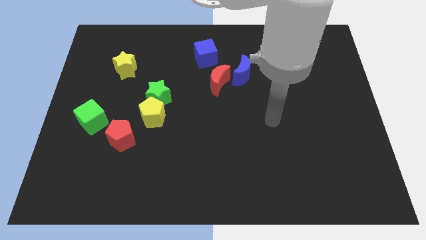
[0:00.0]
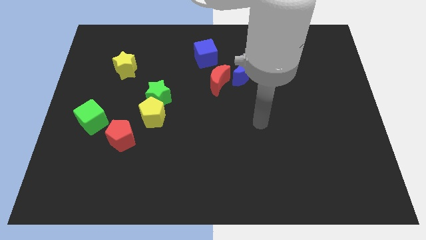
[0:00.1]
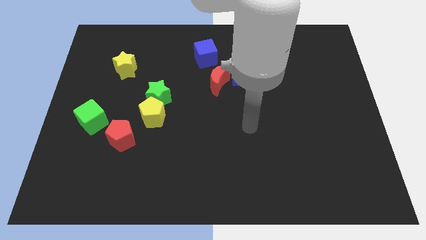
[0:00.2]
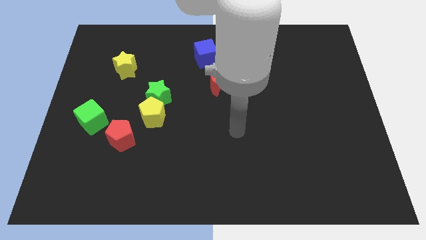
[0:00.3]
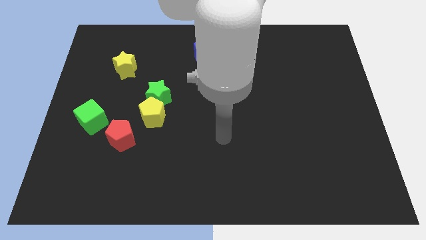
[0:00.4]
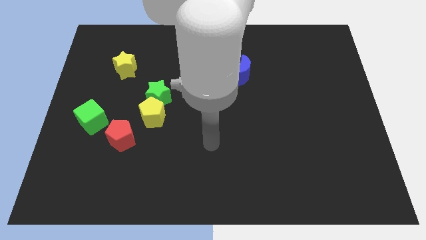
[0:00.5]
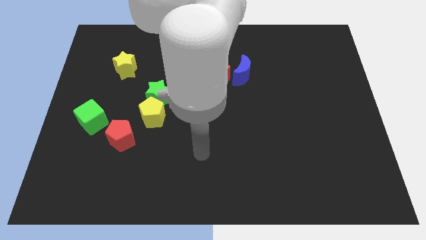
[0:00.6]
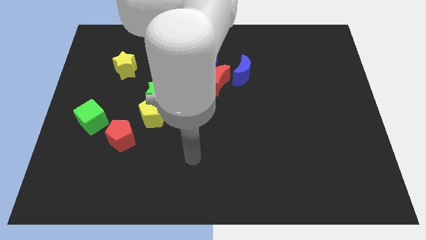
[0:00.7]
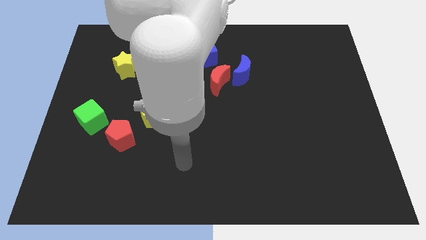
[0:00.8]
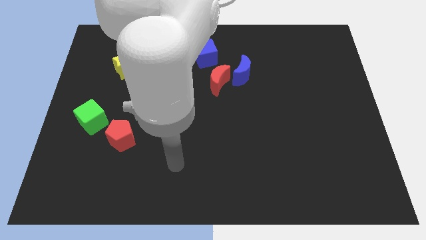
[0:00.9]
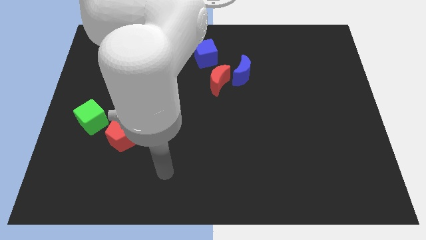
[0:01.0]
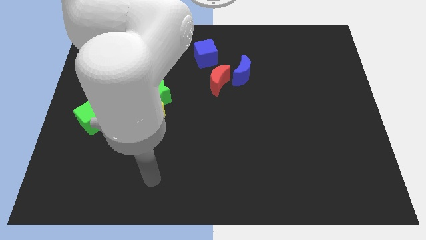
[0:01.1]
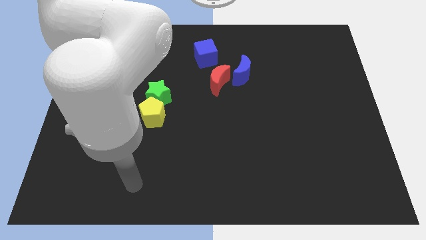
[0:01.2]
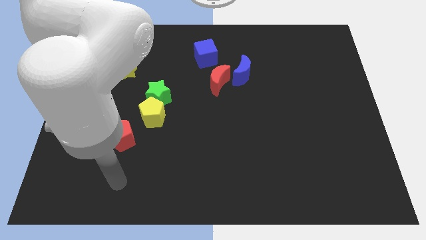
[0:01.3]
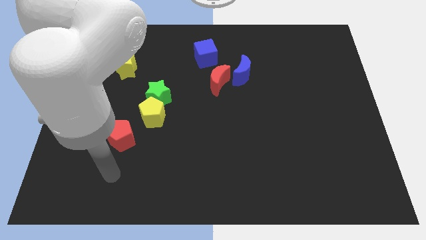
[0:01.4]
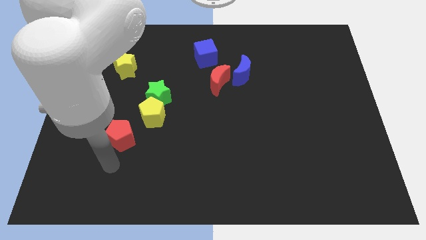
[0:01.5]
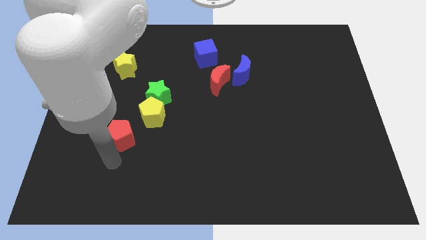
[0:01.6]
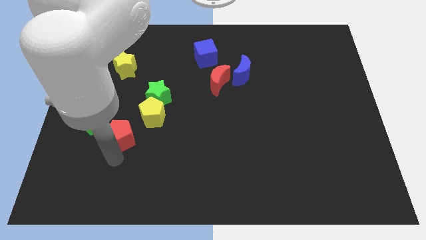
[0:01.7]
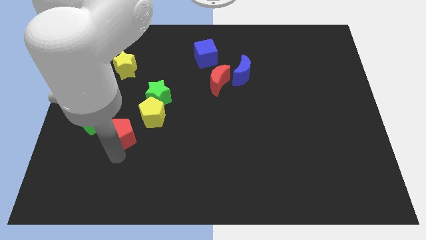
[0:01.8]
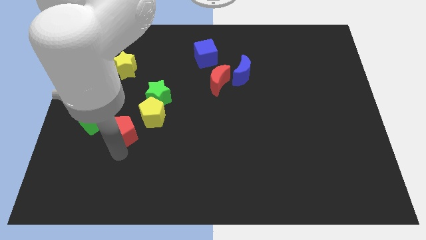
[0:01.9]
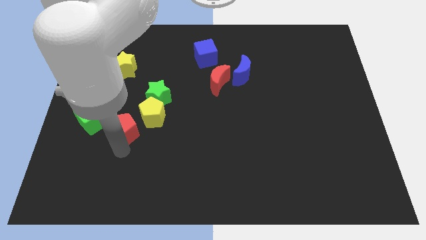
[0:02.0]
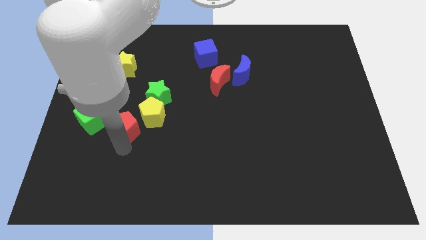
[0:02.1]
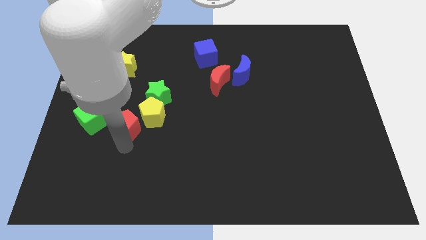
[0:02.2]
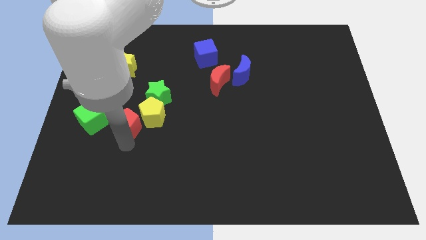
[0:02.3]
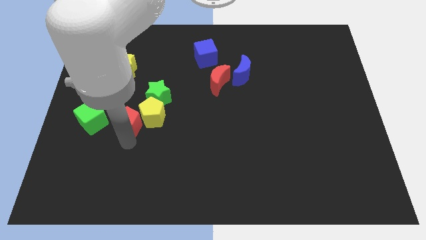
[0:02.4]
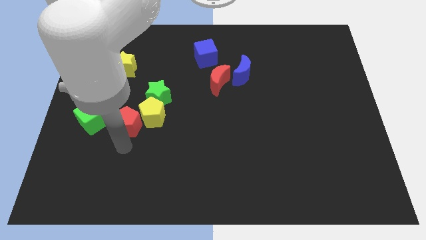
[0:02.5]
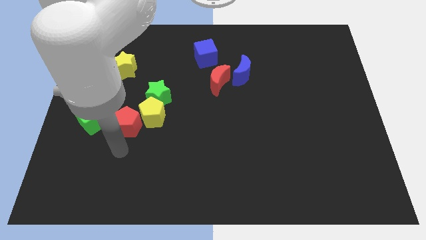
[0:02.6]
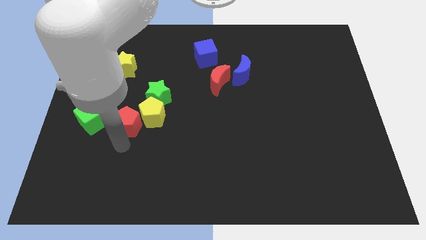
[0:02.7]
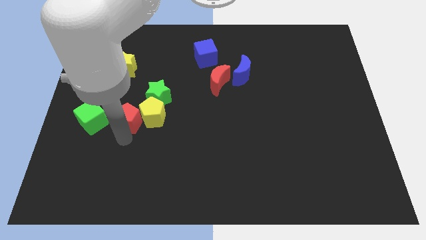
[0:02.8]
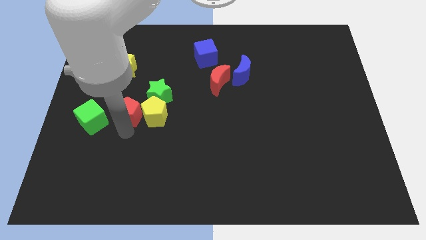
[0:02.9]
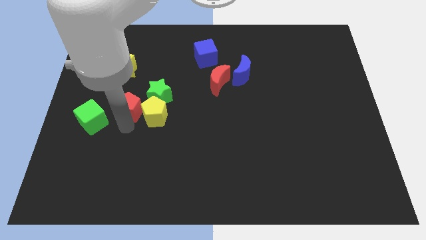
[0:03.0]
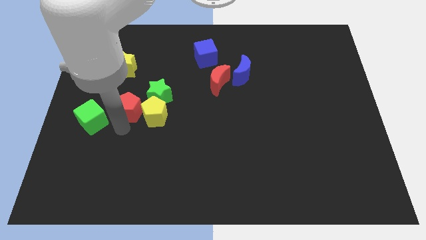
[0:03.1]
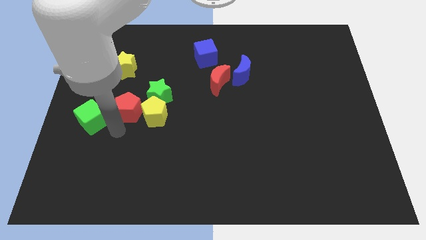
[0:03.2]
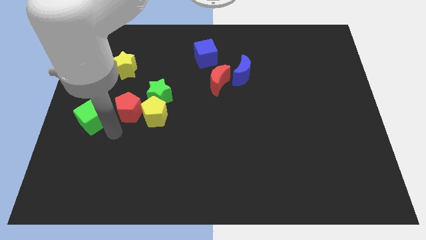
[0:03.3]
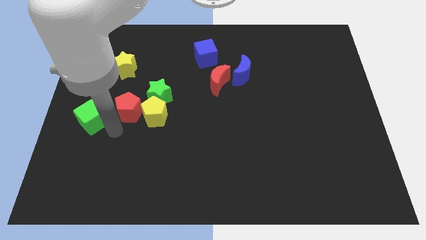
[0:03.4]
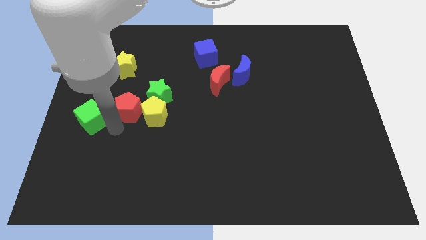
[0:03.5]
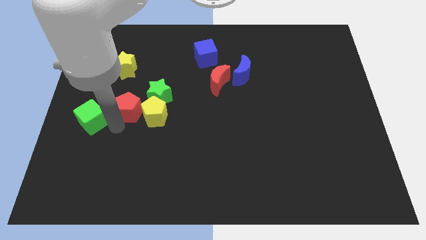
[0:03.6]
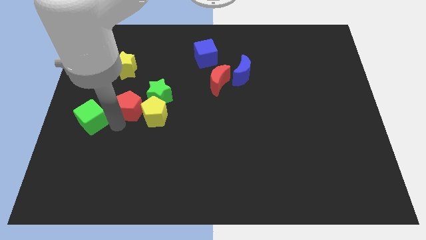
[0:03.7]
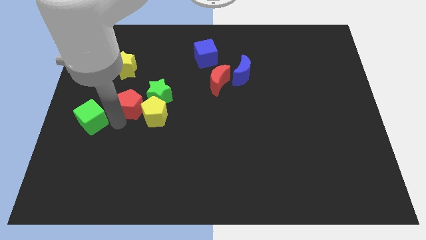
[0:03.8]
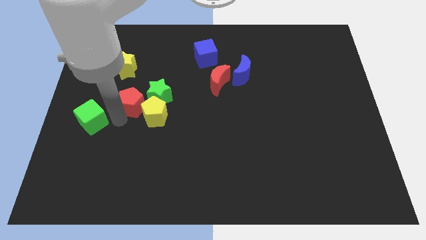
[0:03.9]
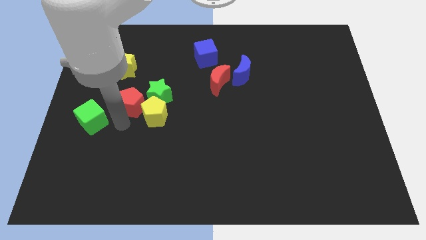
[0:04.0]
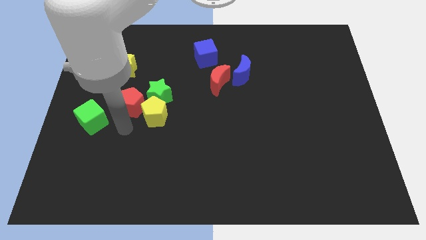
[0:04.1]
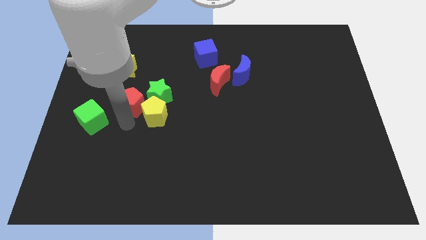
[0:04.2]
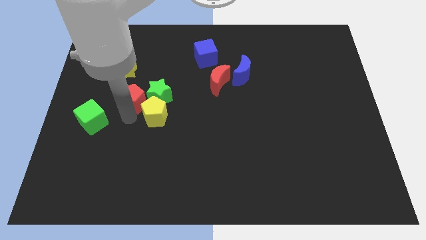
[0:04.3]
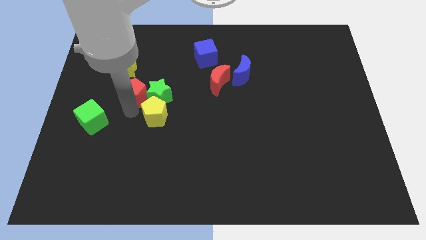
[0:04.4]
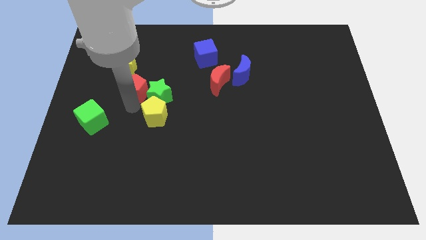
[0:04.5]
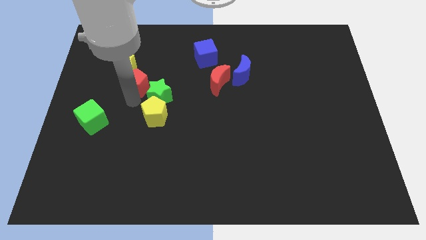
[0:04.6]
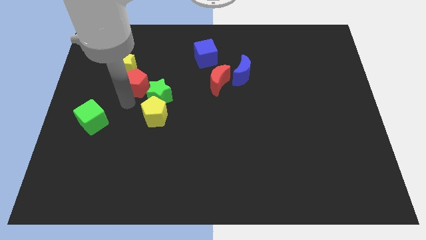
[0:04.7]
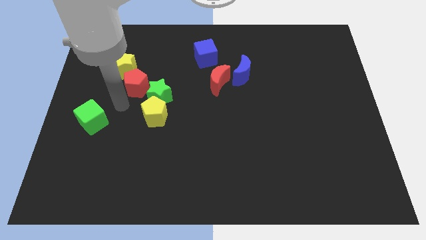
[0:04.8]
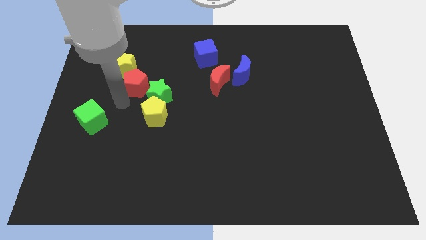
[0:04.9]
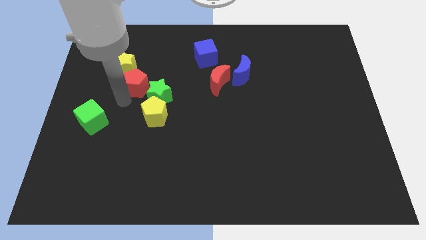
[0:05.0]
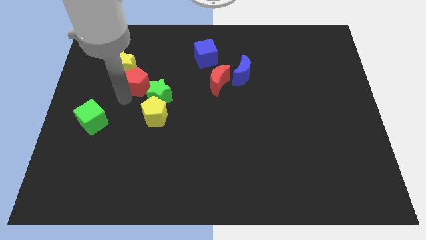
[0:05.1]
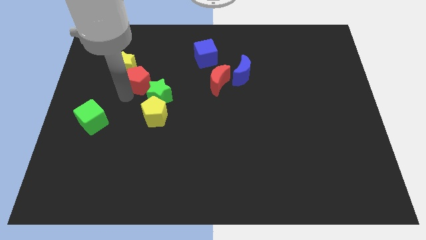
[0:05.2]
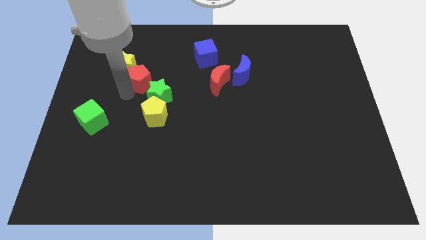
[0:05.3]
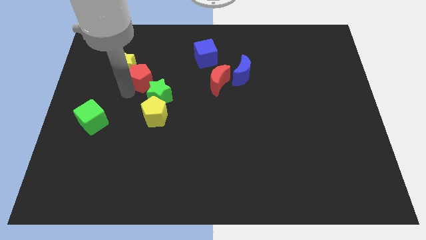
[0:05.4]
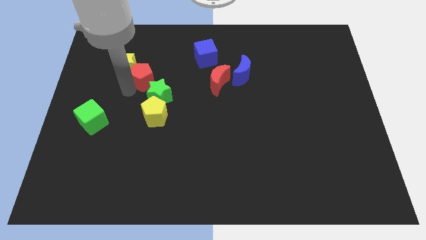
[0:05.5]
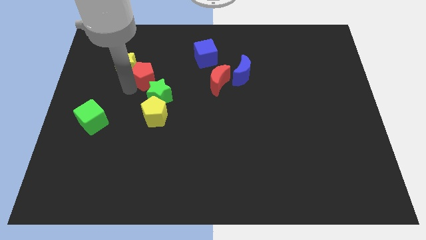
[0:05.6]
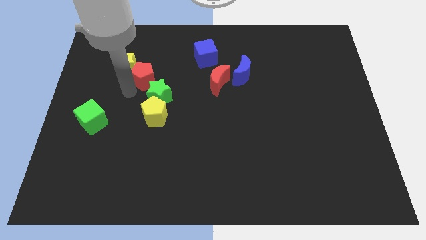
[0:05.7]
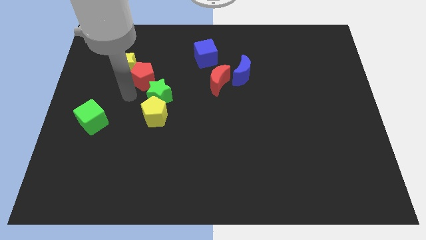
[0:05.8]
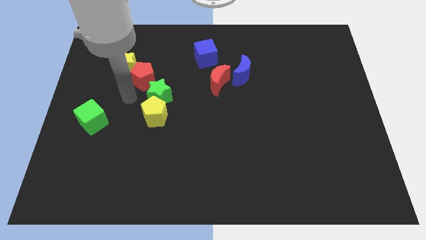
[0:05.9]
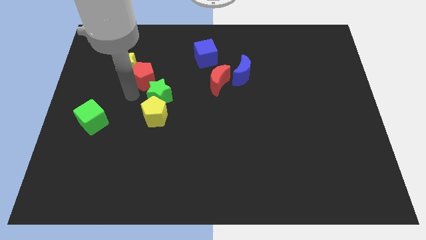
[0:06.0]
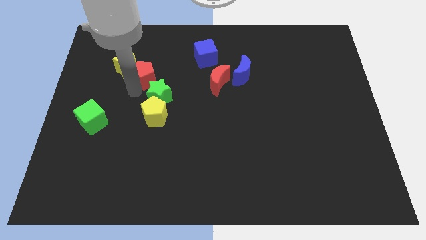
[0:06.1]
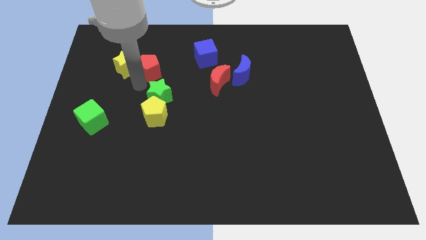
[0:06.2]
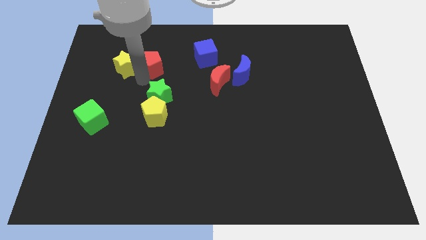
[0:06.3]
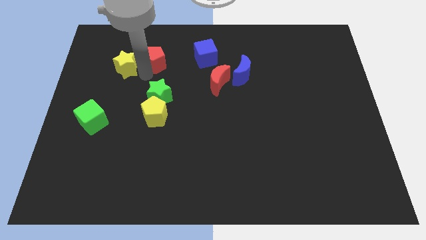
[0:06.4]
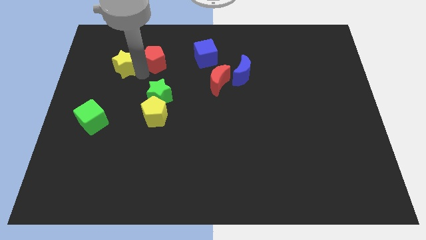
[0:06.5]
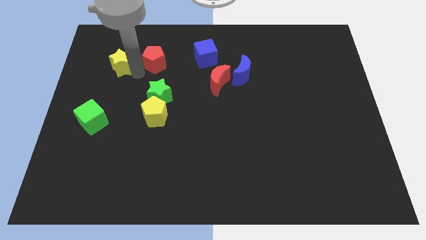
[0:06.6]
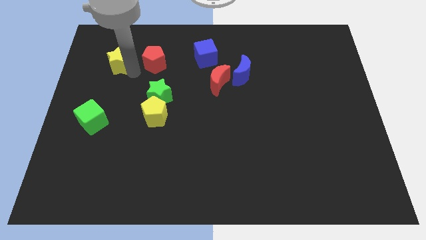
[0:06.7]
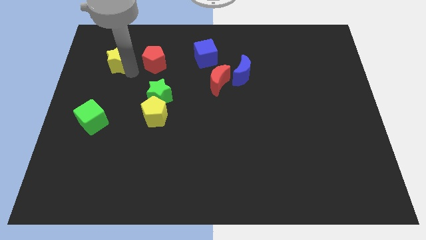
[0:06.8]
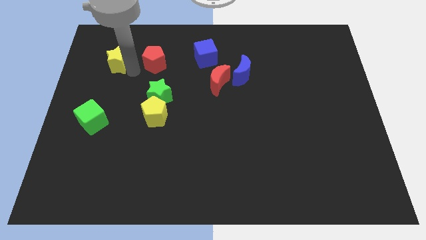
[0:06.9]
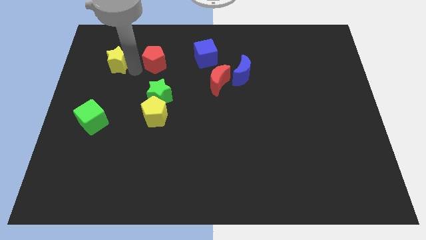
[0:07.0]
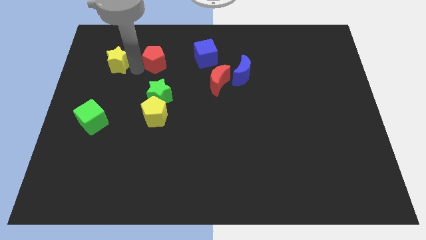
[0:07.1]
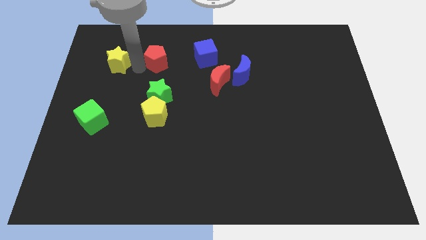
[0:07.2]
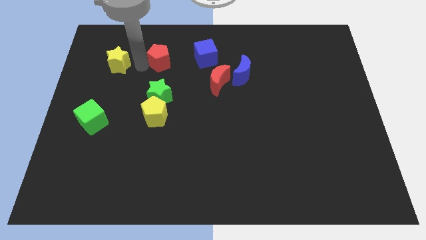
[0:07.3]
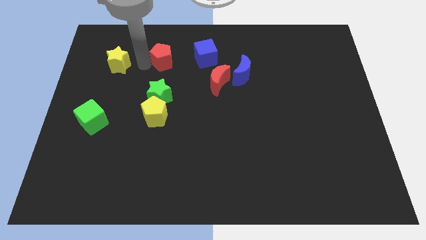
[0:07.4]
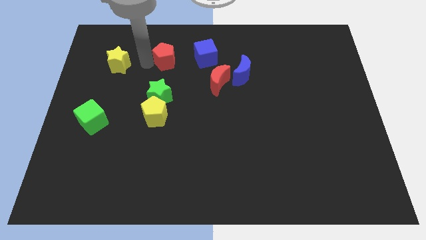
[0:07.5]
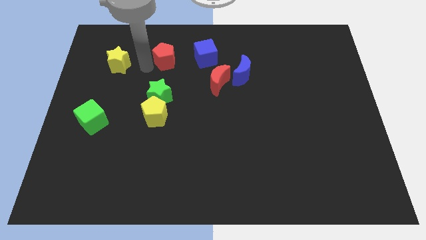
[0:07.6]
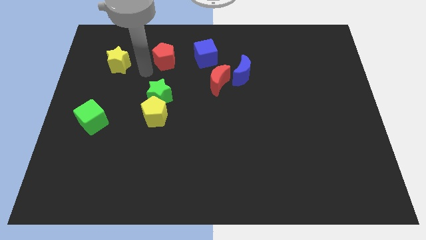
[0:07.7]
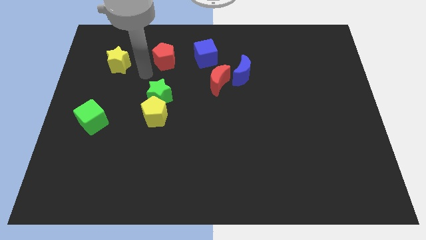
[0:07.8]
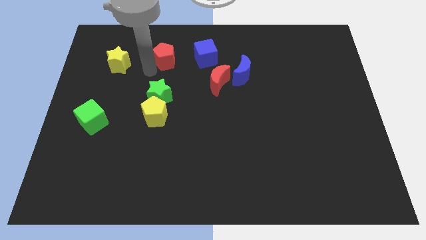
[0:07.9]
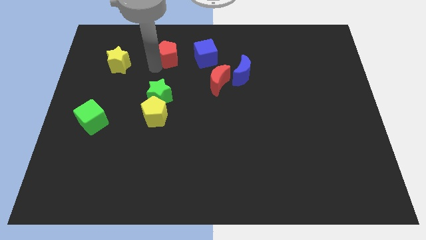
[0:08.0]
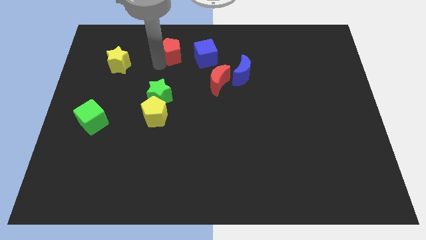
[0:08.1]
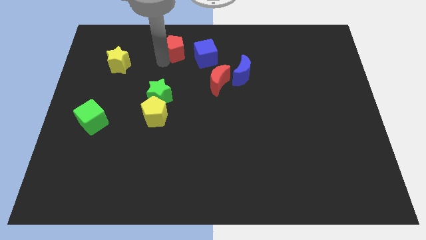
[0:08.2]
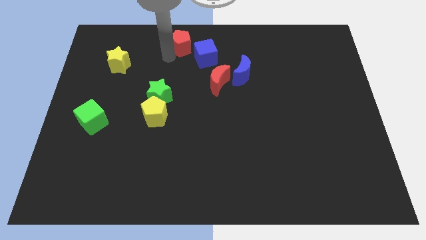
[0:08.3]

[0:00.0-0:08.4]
push the red pentagon to the top
